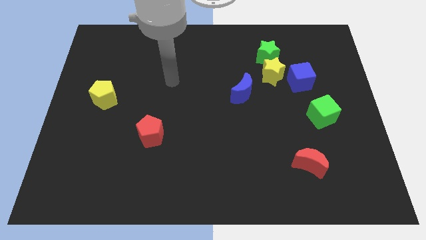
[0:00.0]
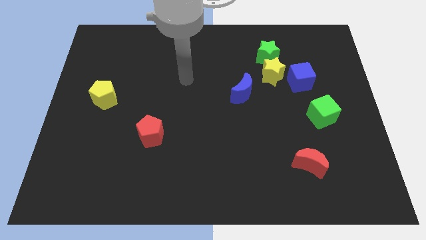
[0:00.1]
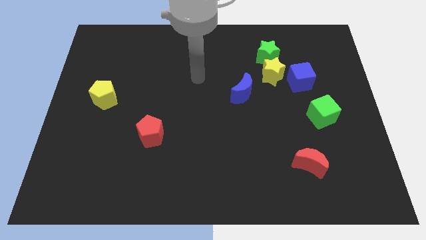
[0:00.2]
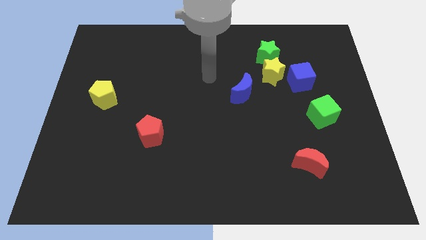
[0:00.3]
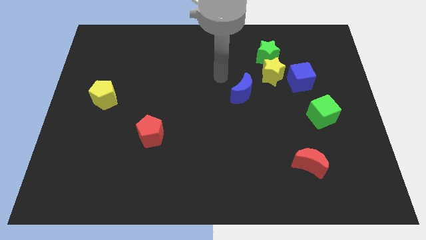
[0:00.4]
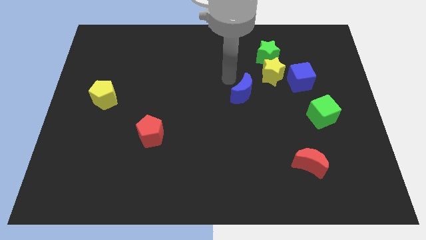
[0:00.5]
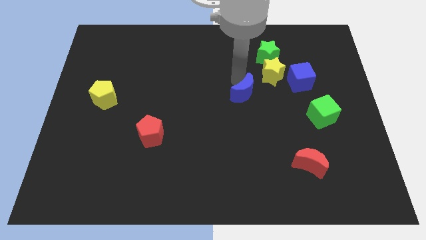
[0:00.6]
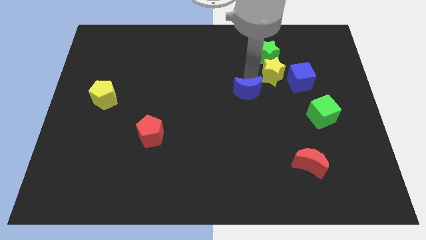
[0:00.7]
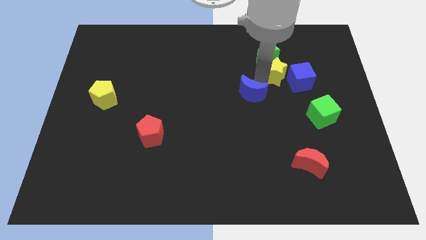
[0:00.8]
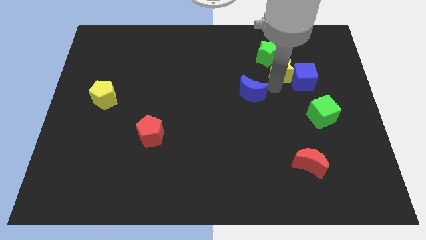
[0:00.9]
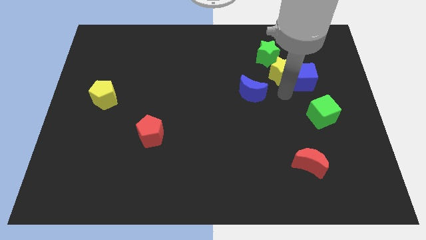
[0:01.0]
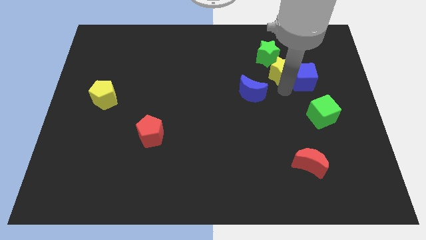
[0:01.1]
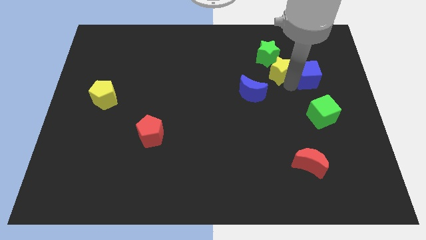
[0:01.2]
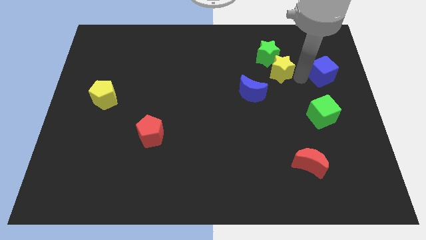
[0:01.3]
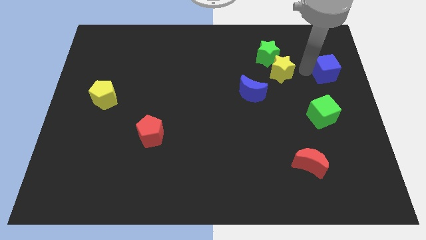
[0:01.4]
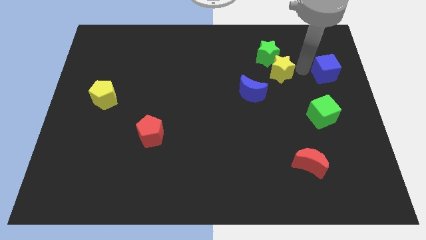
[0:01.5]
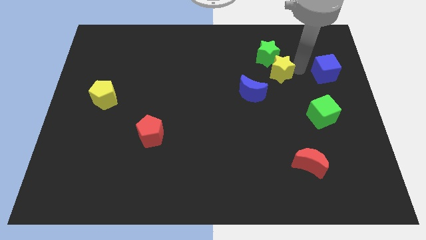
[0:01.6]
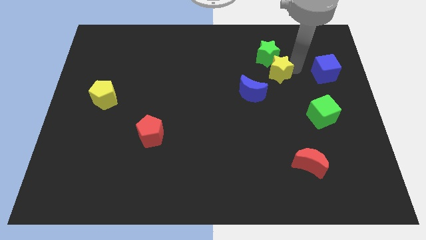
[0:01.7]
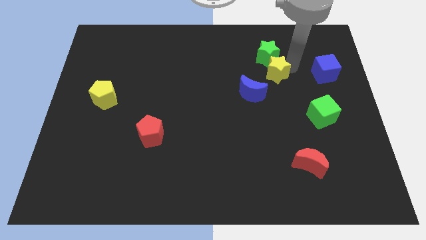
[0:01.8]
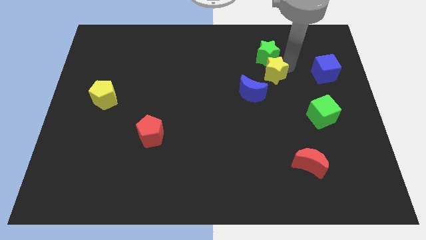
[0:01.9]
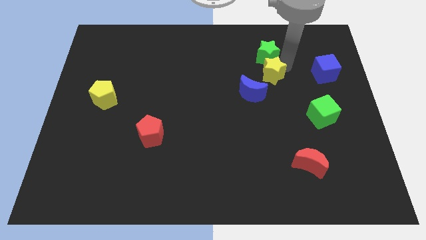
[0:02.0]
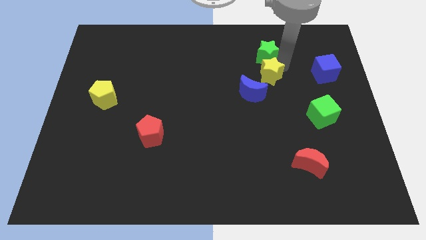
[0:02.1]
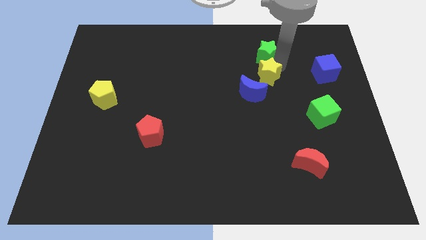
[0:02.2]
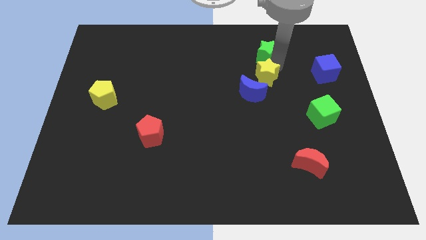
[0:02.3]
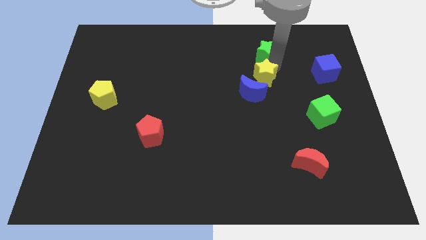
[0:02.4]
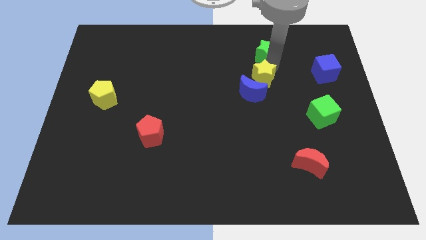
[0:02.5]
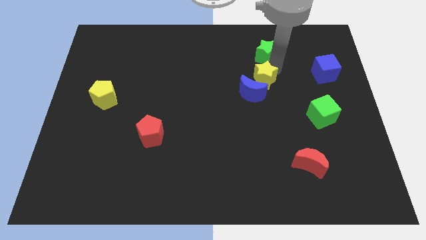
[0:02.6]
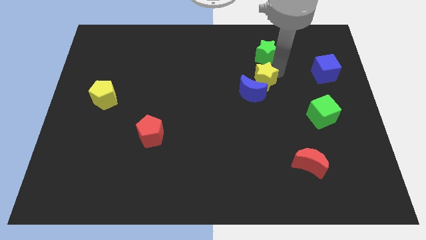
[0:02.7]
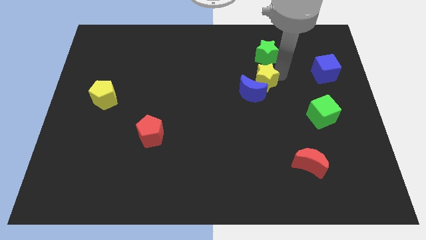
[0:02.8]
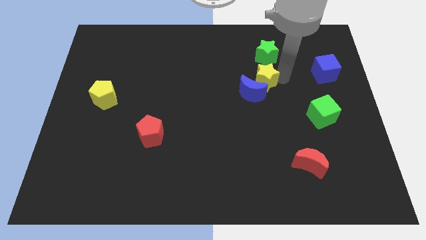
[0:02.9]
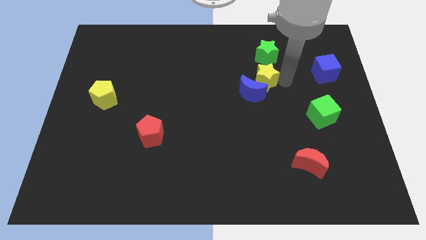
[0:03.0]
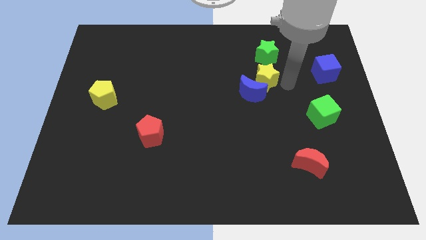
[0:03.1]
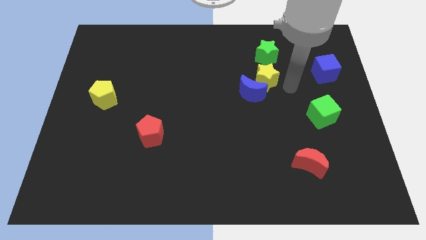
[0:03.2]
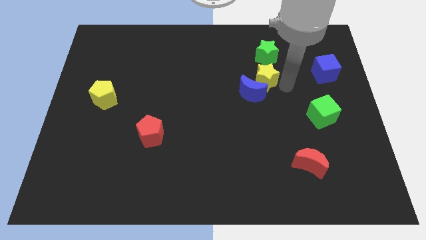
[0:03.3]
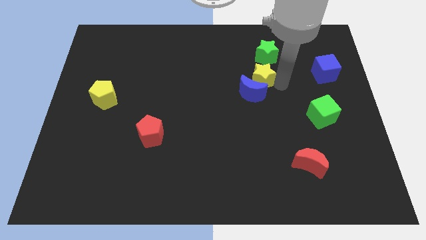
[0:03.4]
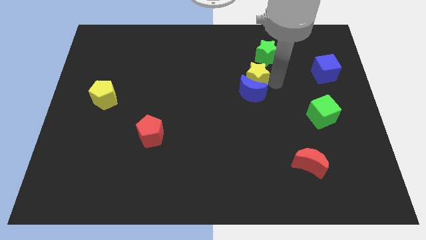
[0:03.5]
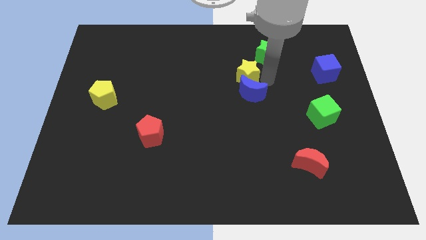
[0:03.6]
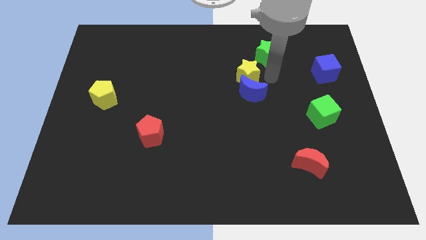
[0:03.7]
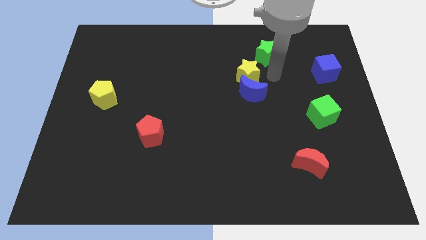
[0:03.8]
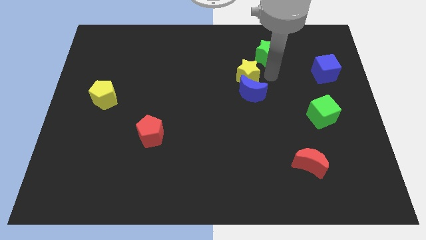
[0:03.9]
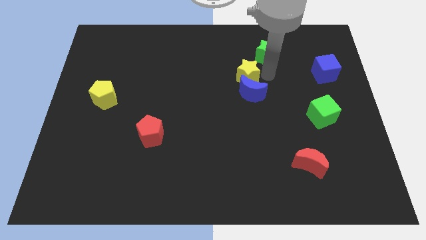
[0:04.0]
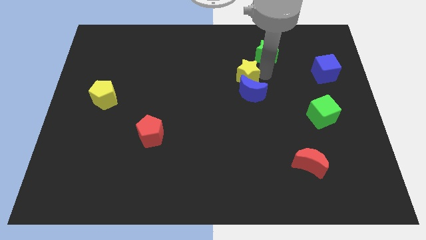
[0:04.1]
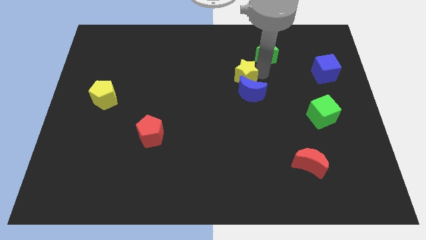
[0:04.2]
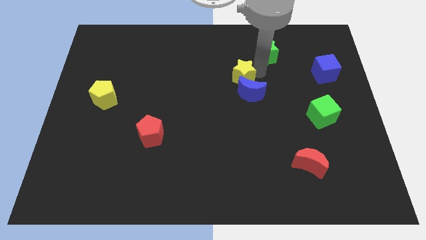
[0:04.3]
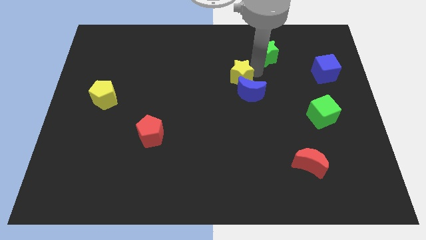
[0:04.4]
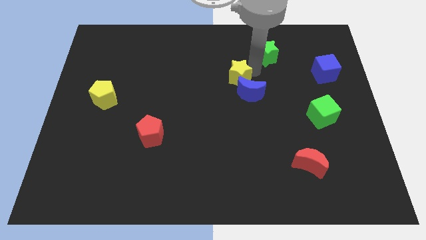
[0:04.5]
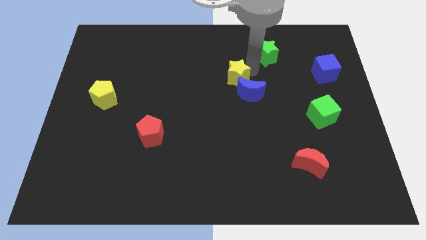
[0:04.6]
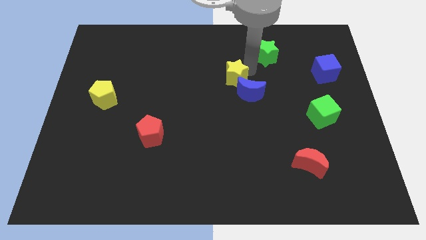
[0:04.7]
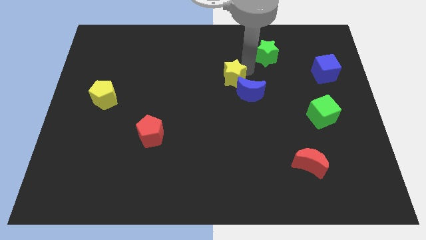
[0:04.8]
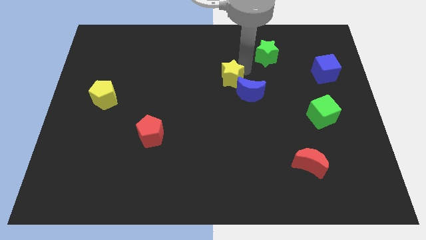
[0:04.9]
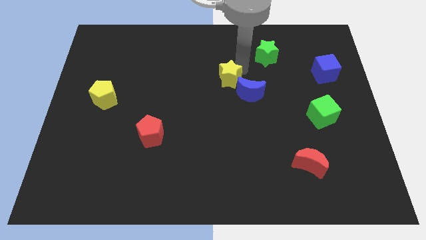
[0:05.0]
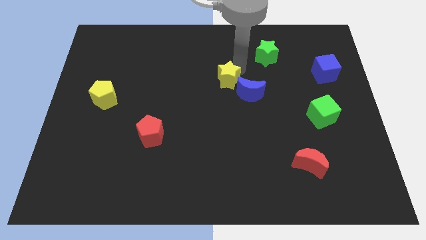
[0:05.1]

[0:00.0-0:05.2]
push the yellow star left of the blue moon

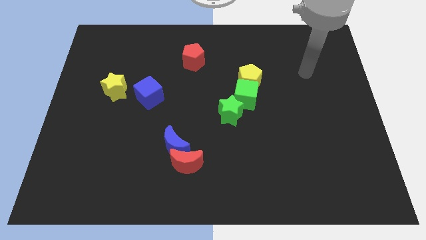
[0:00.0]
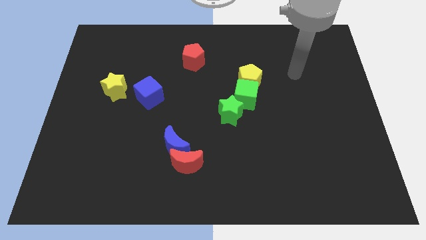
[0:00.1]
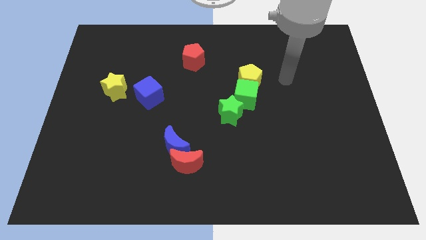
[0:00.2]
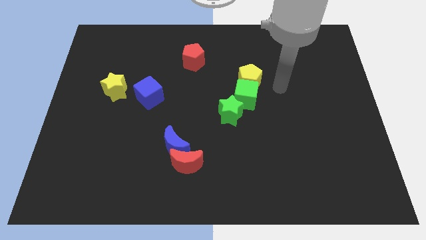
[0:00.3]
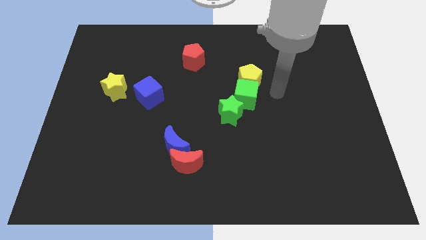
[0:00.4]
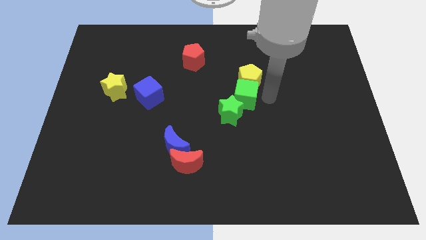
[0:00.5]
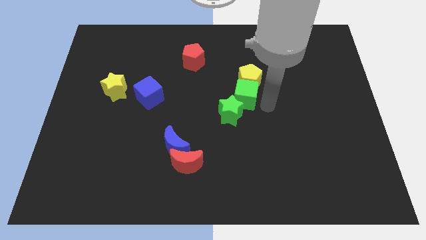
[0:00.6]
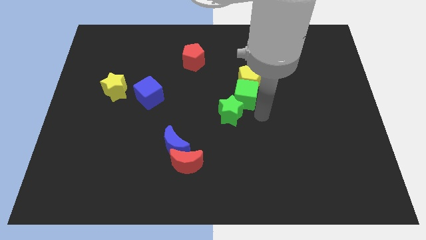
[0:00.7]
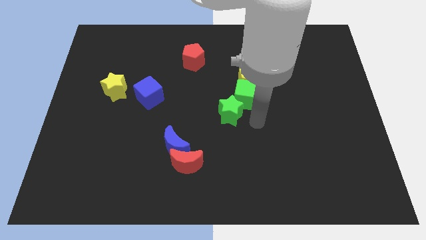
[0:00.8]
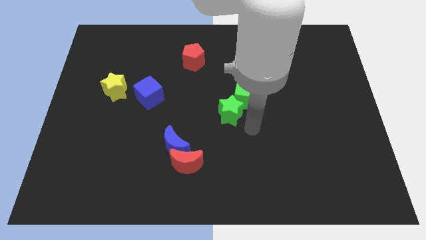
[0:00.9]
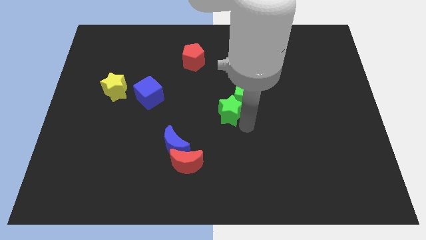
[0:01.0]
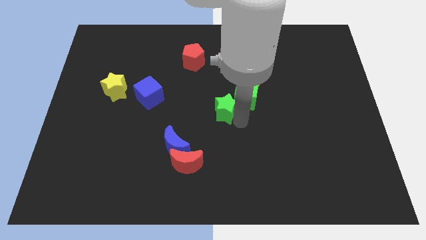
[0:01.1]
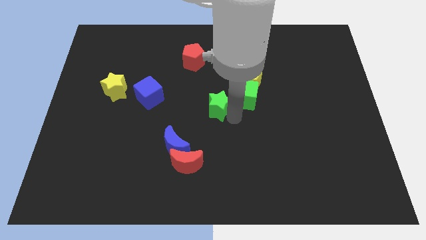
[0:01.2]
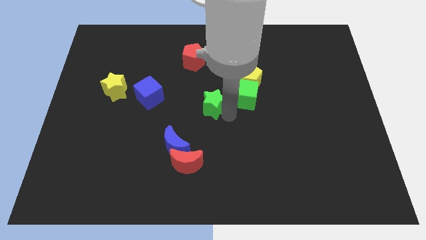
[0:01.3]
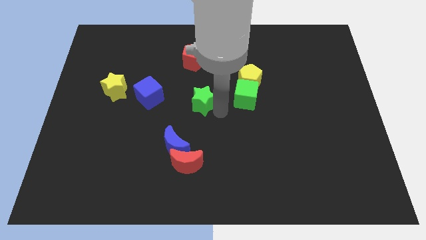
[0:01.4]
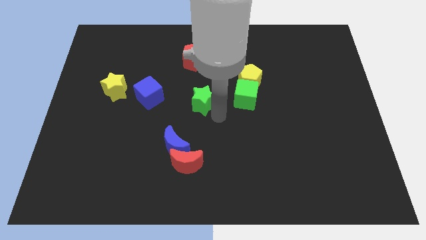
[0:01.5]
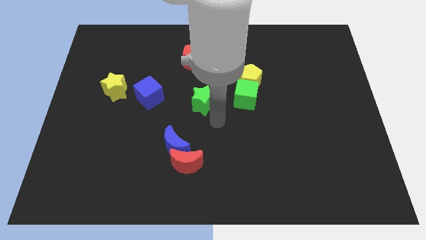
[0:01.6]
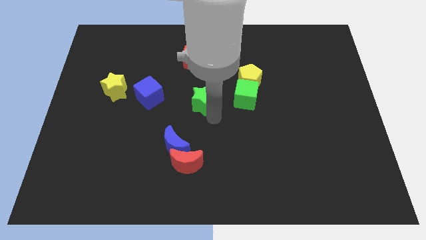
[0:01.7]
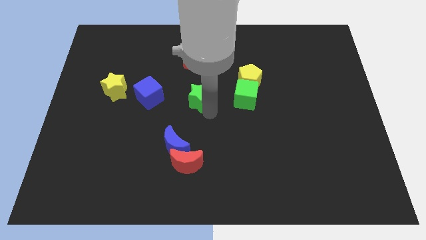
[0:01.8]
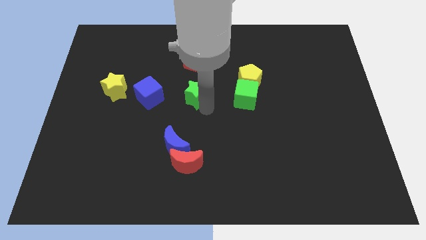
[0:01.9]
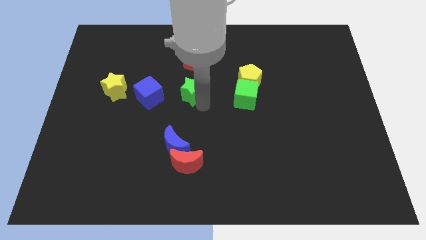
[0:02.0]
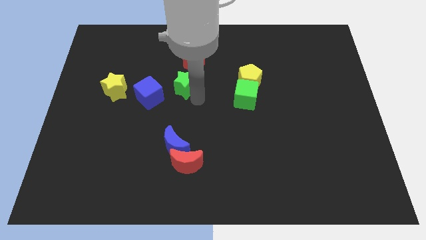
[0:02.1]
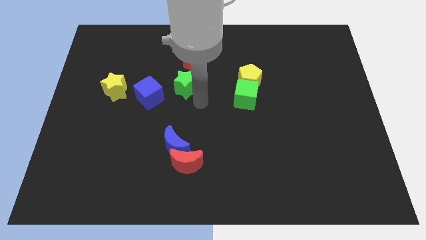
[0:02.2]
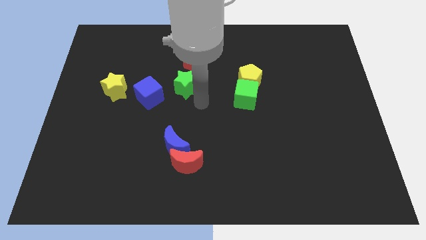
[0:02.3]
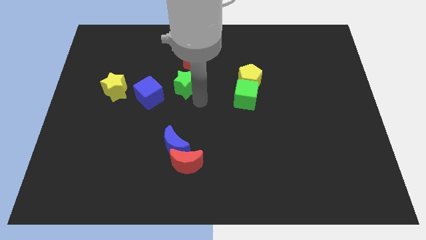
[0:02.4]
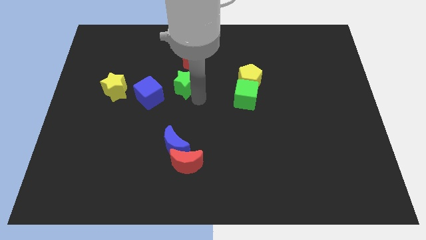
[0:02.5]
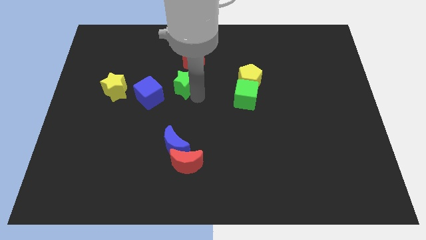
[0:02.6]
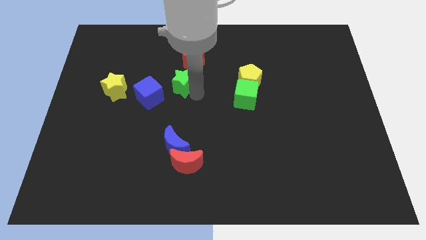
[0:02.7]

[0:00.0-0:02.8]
push the green star to the bottom left side of the red pentagon

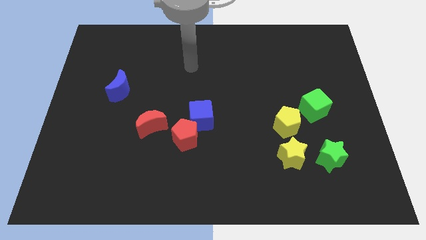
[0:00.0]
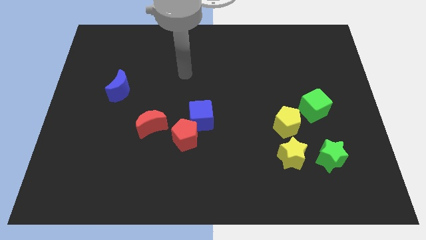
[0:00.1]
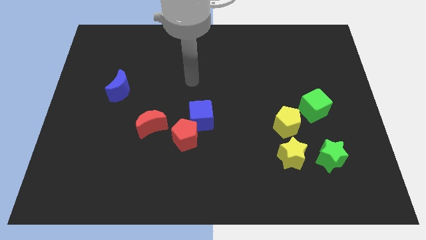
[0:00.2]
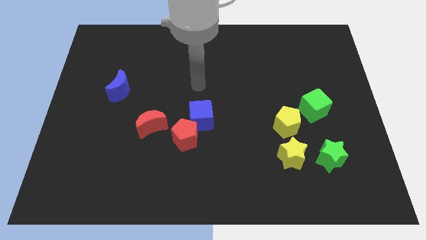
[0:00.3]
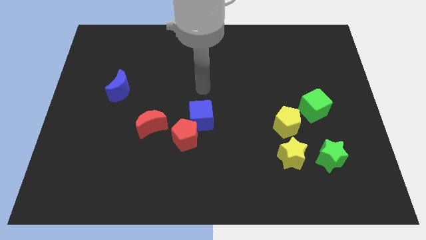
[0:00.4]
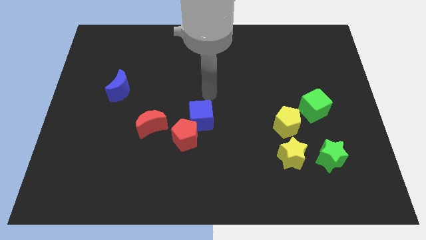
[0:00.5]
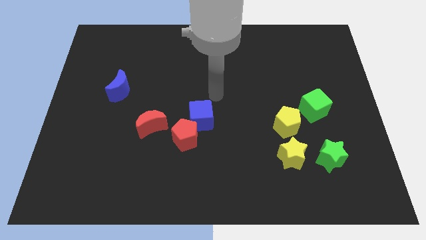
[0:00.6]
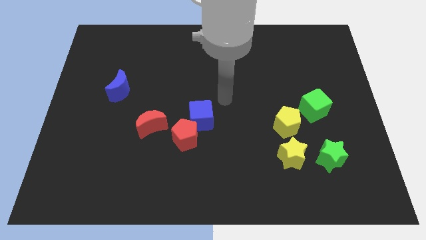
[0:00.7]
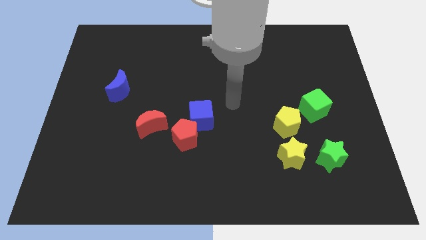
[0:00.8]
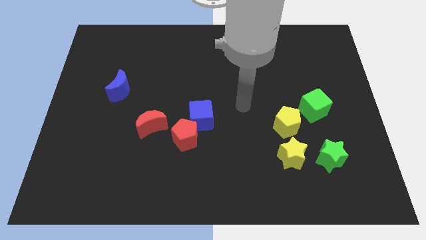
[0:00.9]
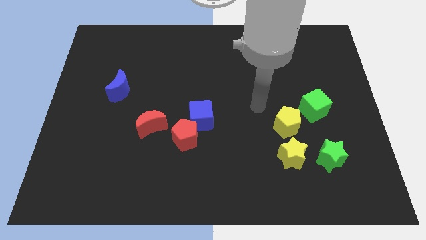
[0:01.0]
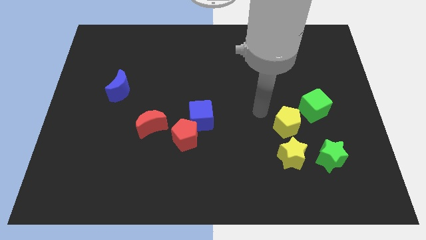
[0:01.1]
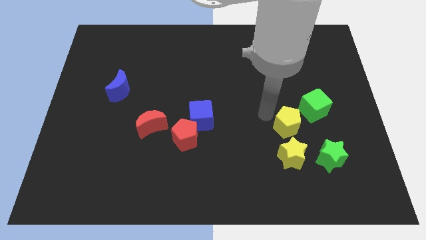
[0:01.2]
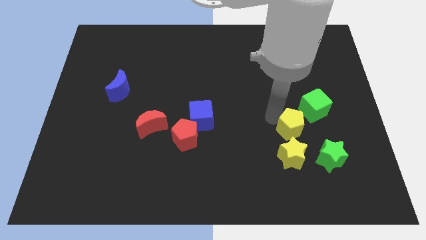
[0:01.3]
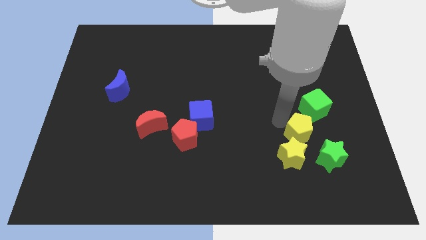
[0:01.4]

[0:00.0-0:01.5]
move the yellow pentagon diagonally up and to the right of the yellow star
